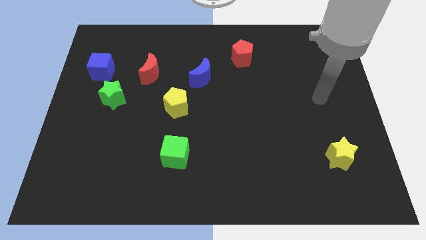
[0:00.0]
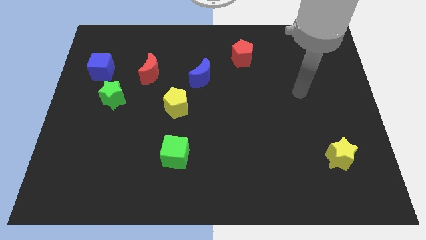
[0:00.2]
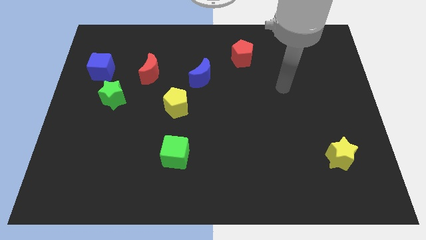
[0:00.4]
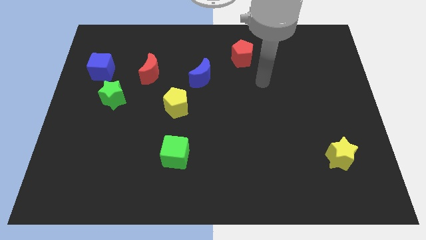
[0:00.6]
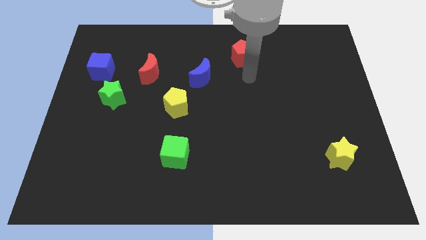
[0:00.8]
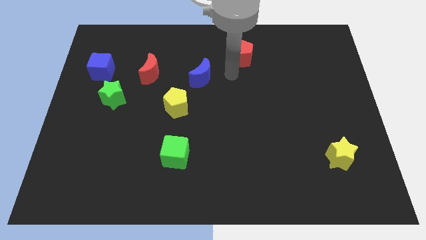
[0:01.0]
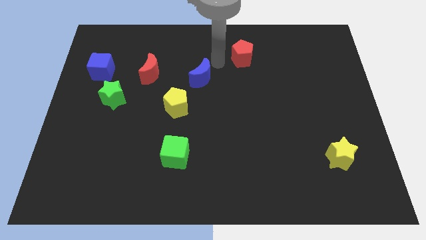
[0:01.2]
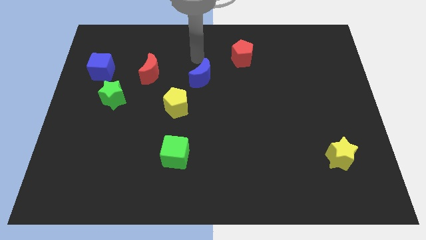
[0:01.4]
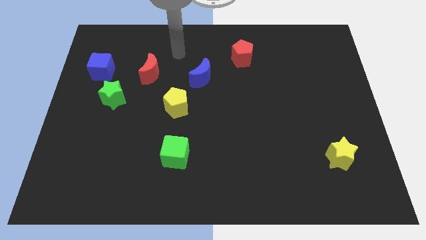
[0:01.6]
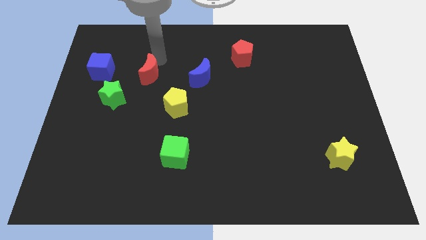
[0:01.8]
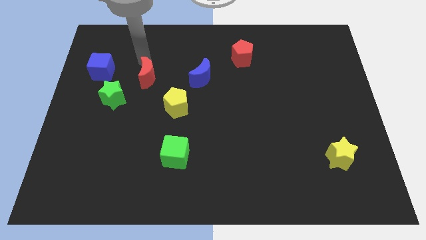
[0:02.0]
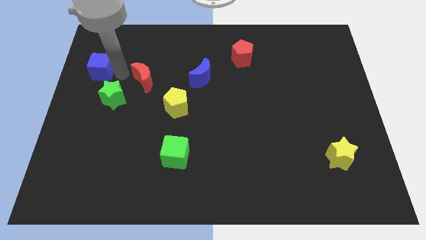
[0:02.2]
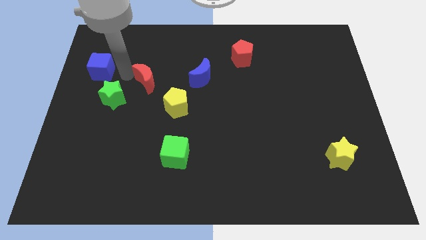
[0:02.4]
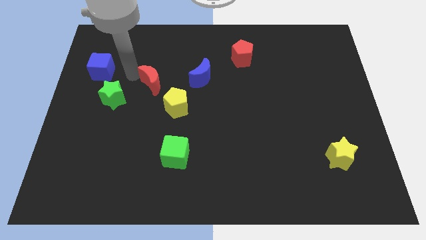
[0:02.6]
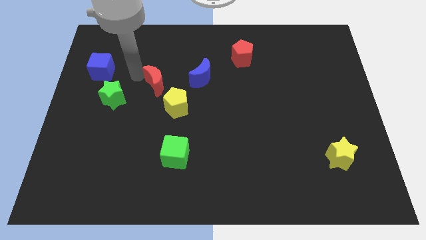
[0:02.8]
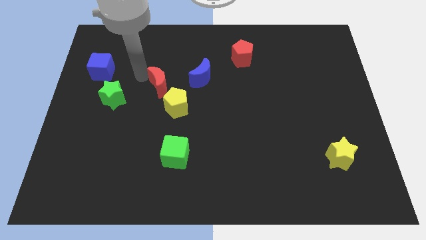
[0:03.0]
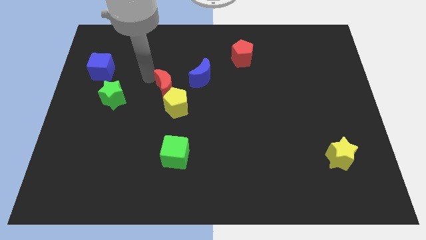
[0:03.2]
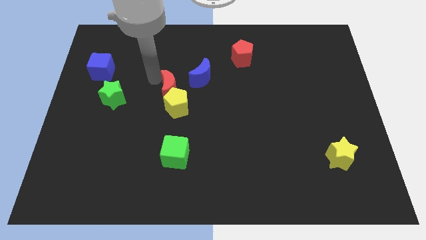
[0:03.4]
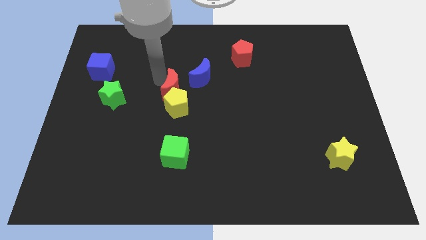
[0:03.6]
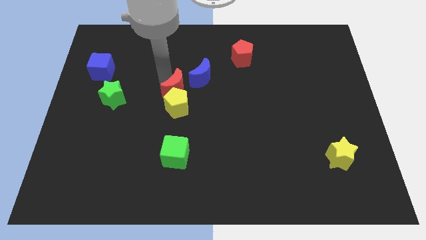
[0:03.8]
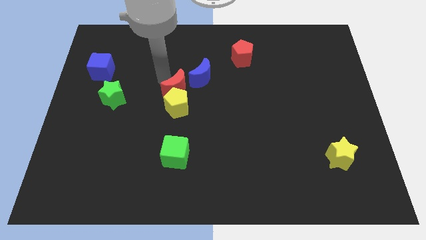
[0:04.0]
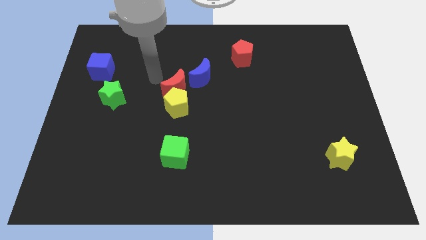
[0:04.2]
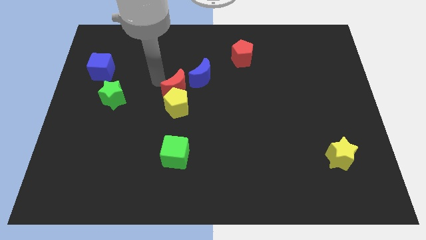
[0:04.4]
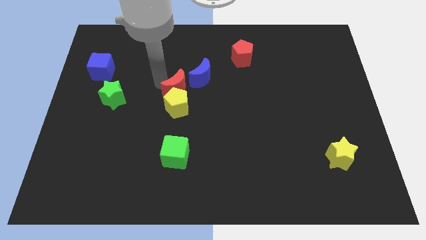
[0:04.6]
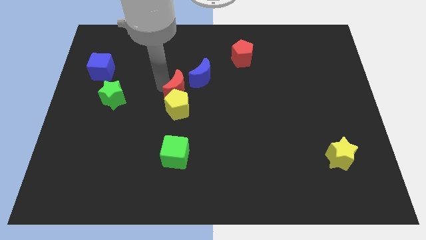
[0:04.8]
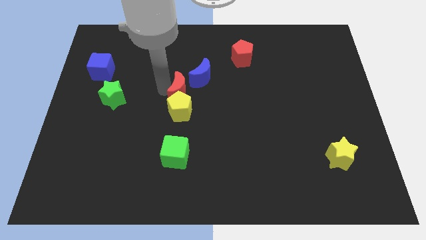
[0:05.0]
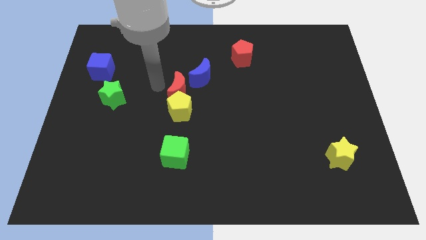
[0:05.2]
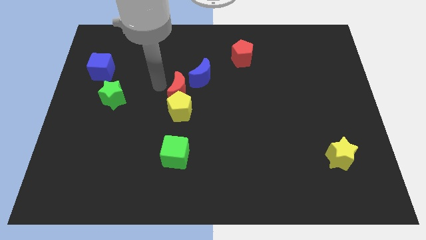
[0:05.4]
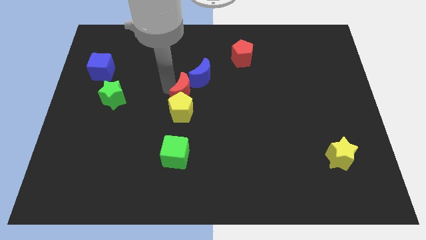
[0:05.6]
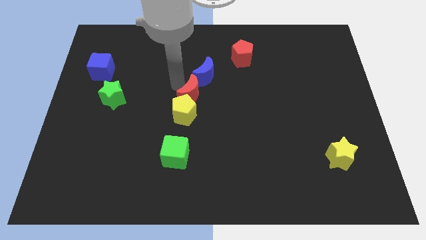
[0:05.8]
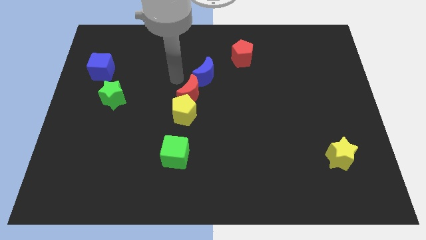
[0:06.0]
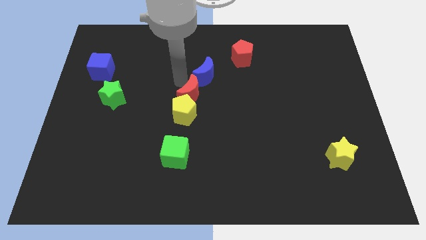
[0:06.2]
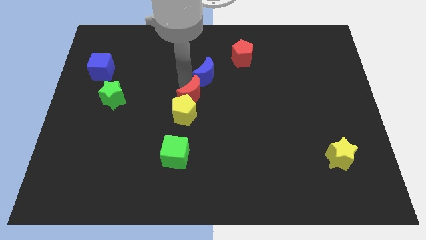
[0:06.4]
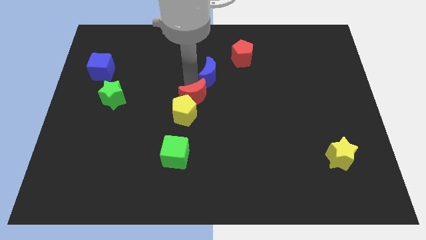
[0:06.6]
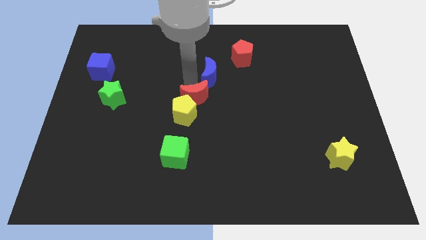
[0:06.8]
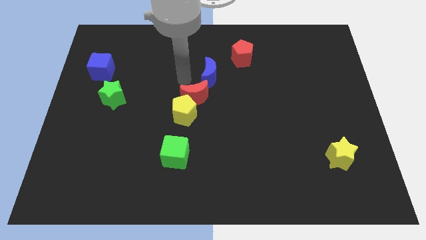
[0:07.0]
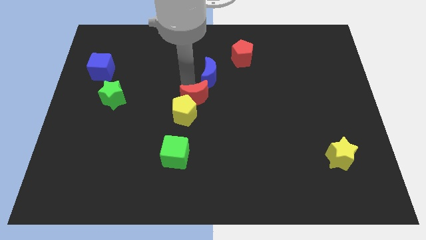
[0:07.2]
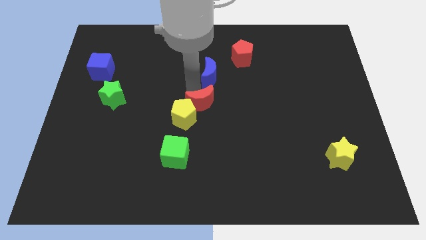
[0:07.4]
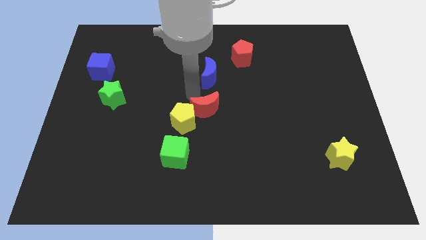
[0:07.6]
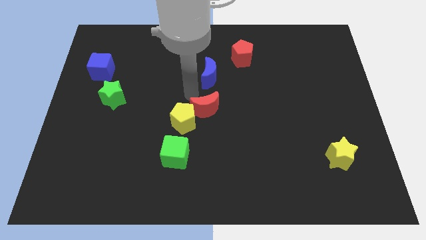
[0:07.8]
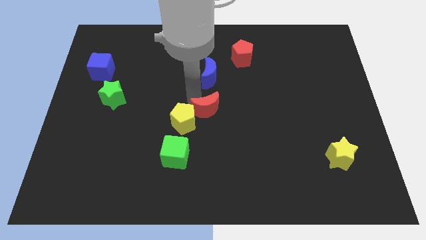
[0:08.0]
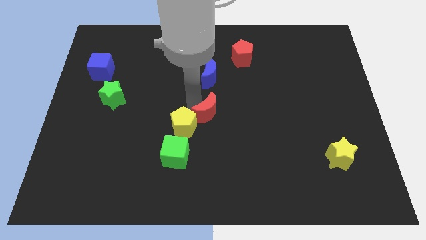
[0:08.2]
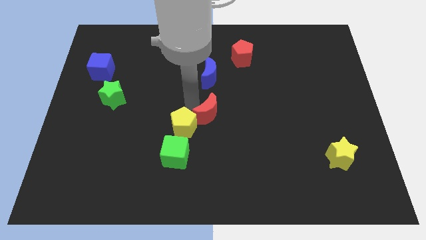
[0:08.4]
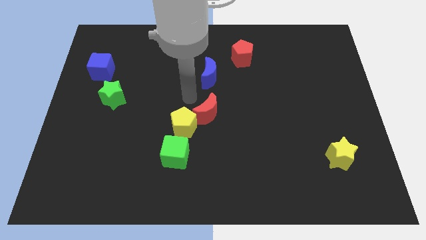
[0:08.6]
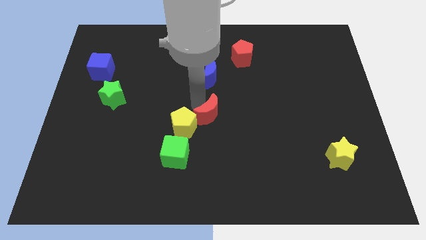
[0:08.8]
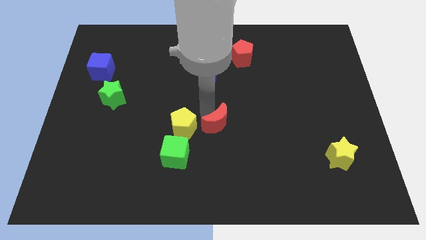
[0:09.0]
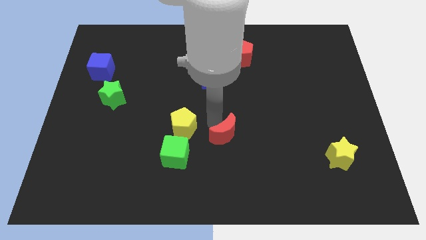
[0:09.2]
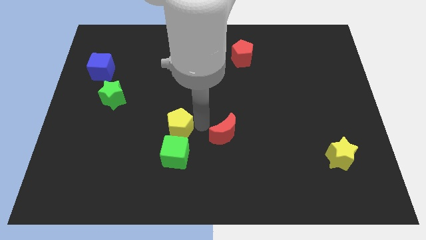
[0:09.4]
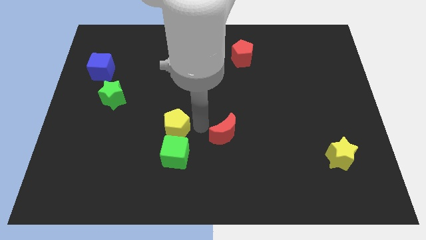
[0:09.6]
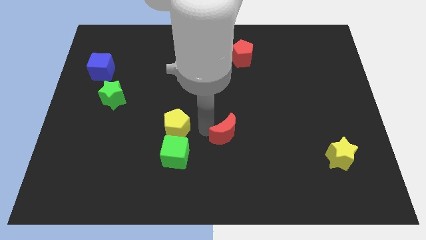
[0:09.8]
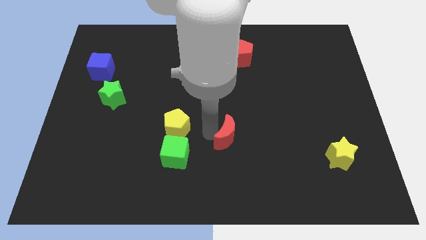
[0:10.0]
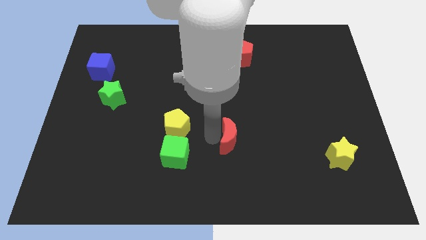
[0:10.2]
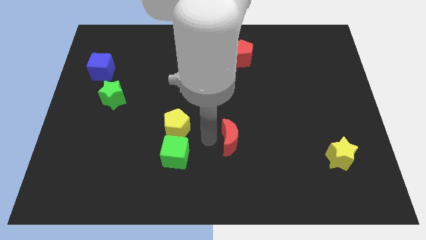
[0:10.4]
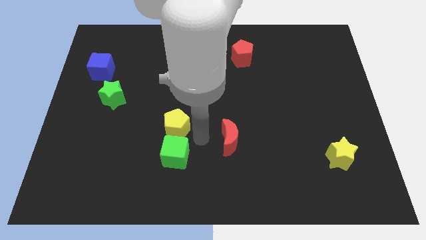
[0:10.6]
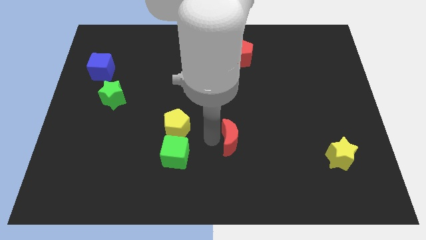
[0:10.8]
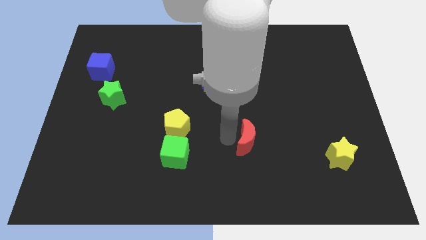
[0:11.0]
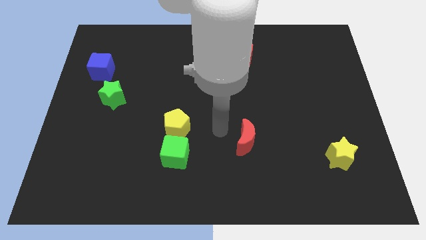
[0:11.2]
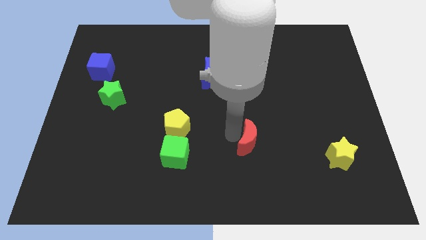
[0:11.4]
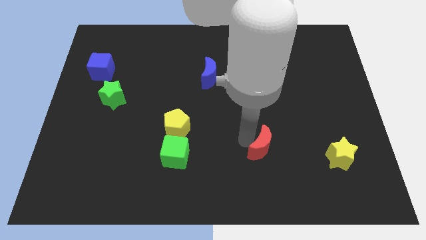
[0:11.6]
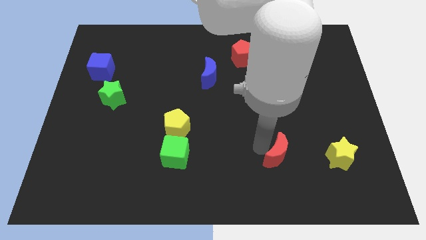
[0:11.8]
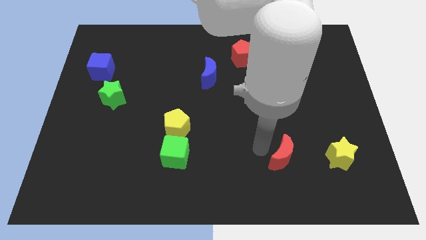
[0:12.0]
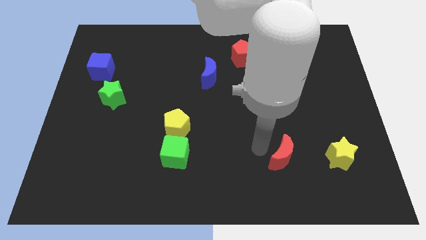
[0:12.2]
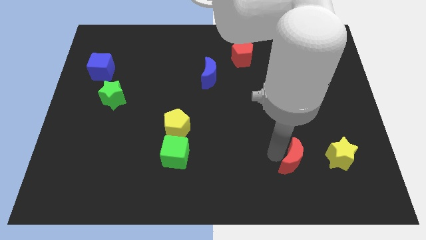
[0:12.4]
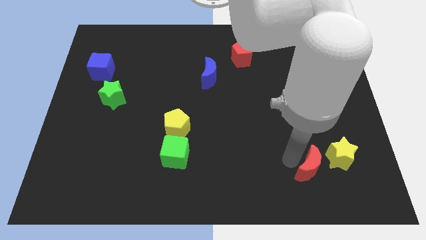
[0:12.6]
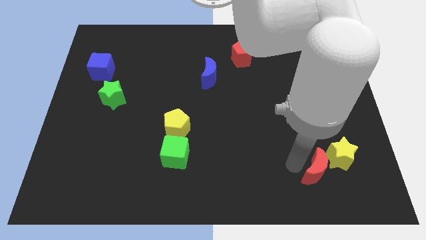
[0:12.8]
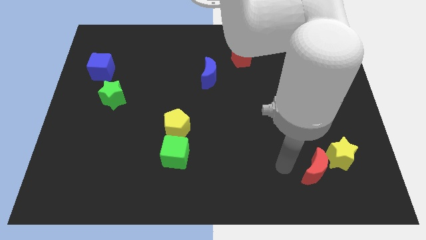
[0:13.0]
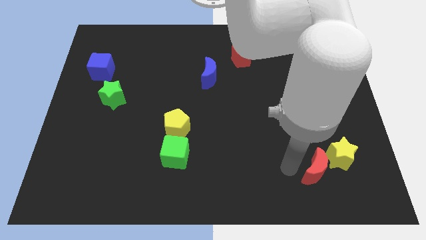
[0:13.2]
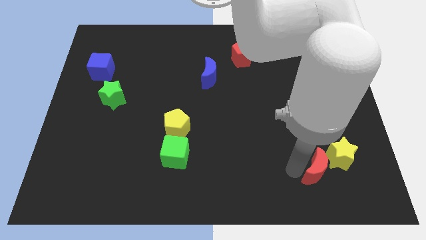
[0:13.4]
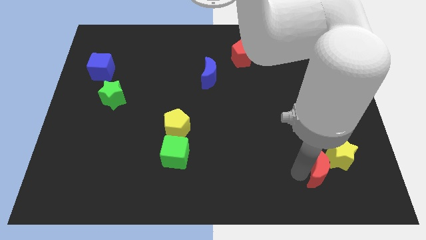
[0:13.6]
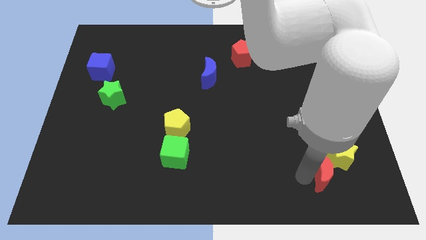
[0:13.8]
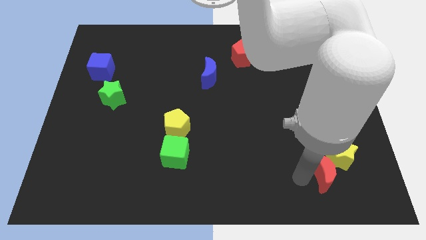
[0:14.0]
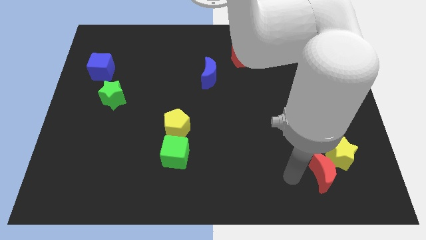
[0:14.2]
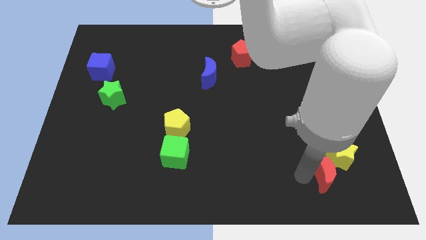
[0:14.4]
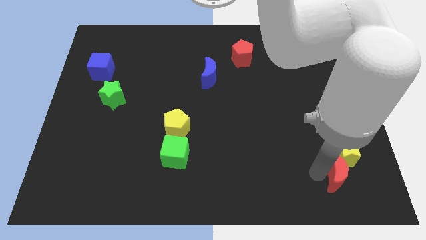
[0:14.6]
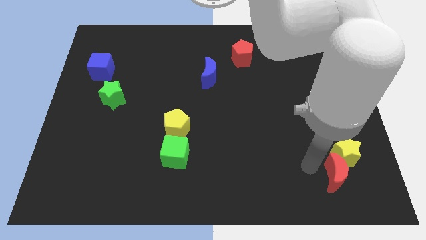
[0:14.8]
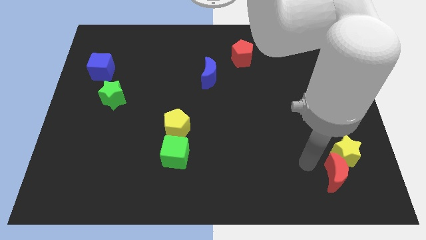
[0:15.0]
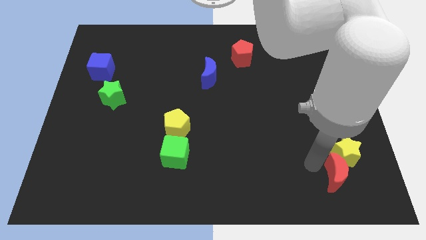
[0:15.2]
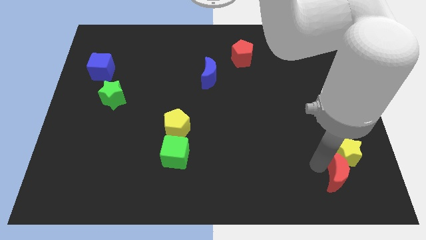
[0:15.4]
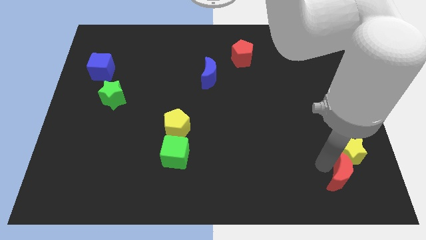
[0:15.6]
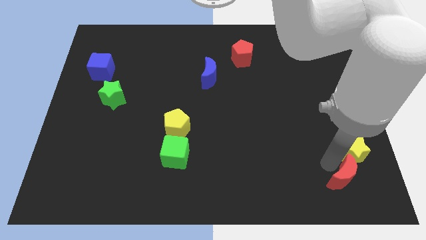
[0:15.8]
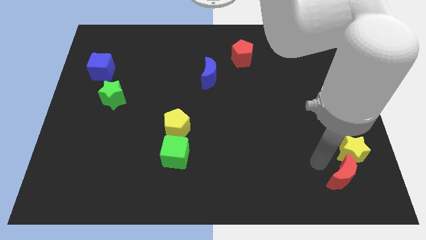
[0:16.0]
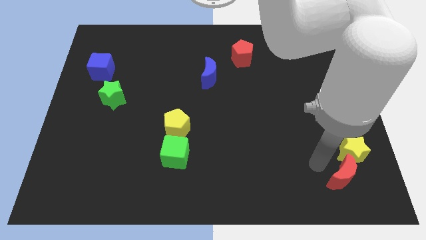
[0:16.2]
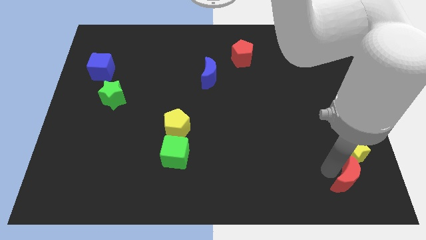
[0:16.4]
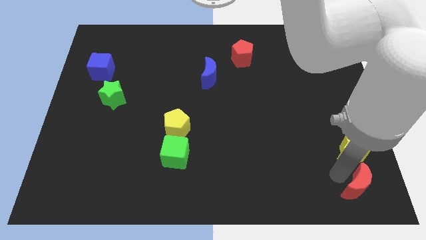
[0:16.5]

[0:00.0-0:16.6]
slide the red moon to the lower right corner
